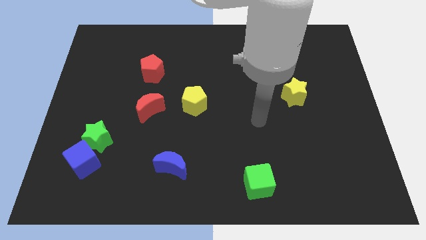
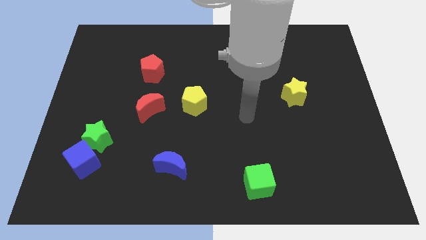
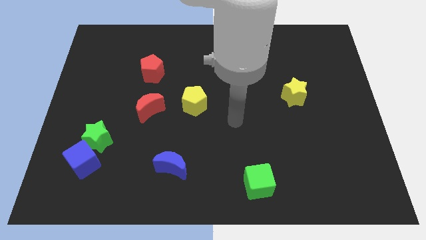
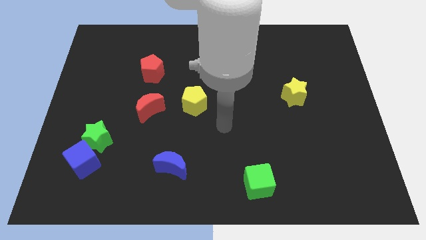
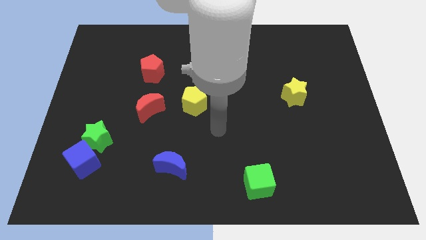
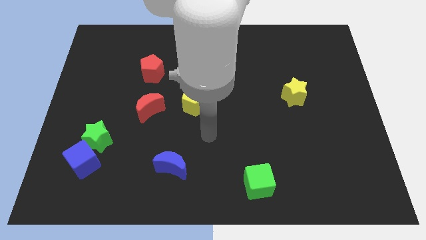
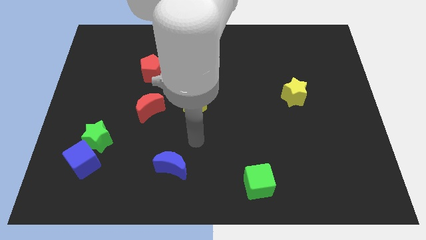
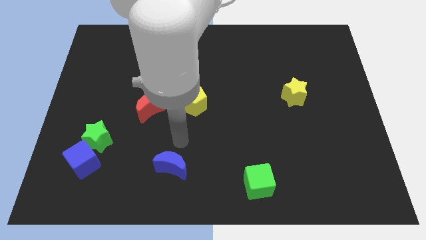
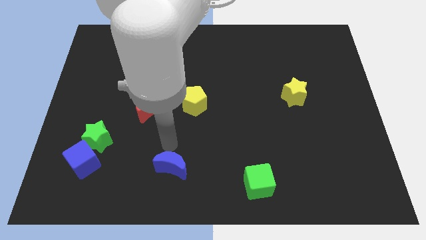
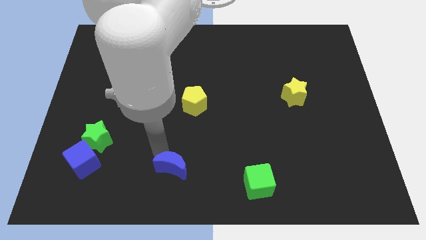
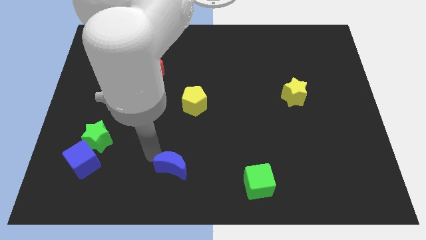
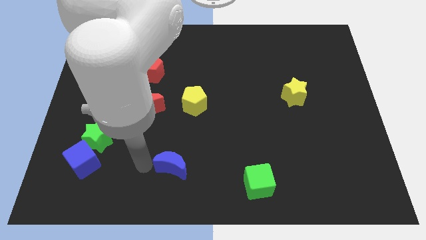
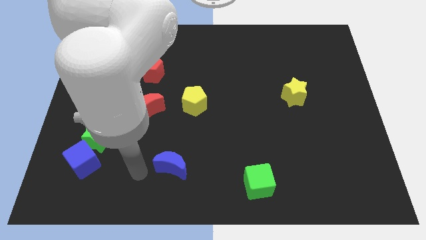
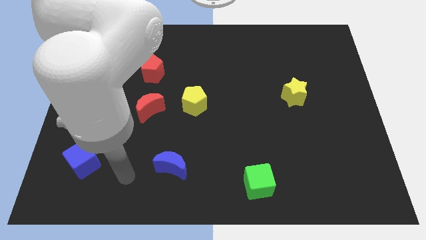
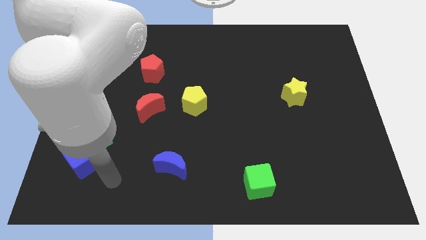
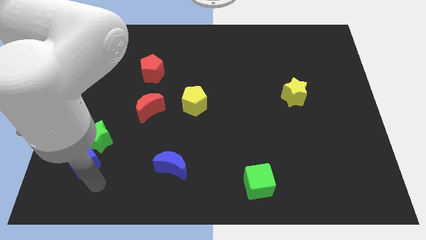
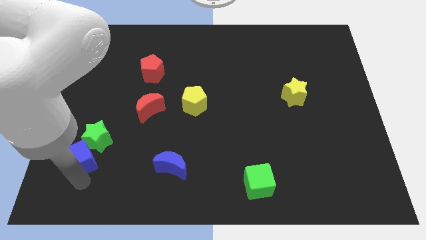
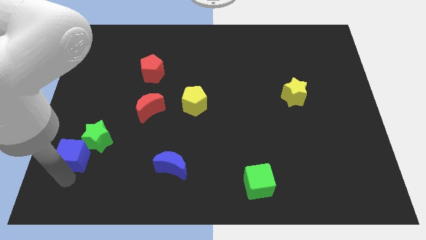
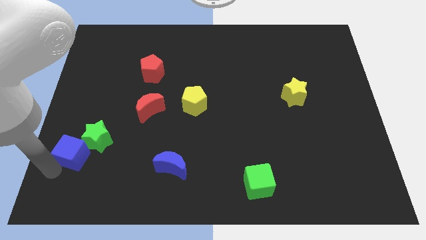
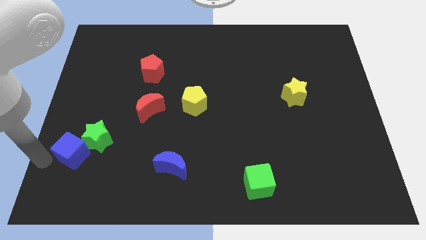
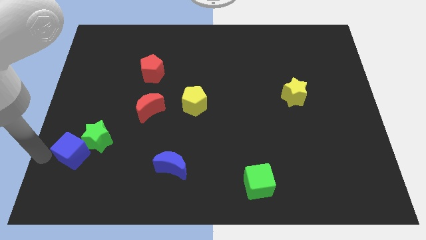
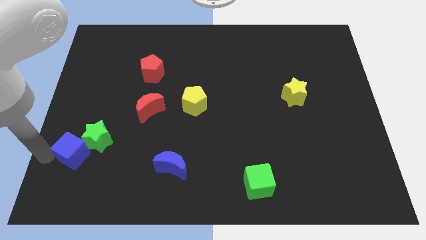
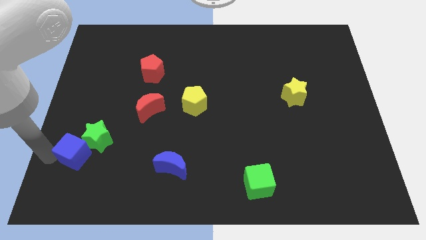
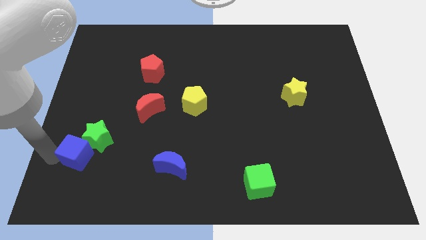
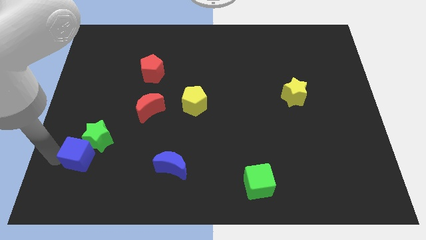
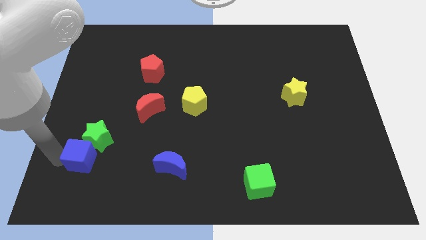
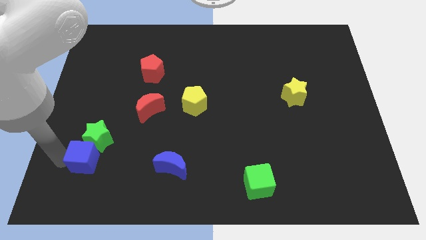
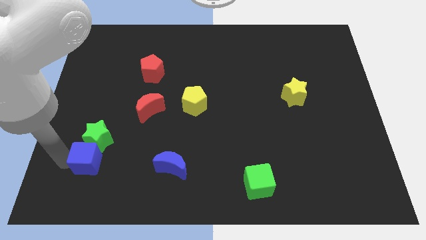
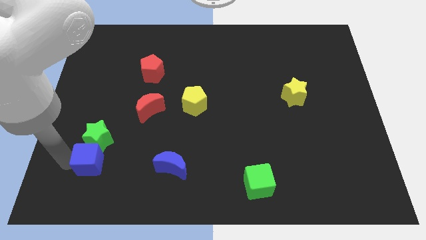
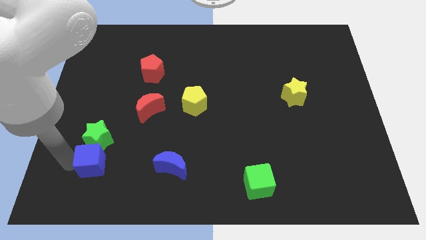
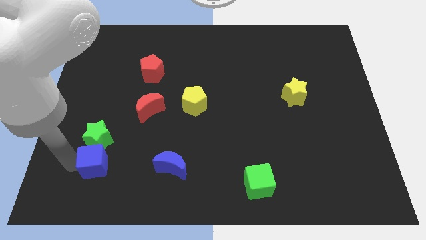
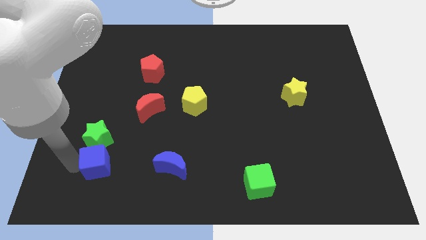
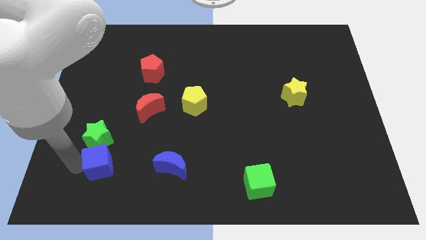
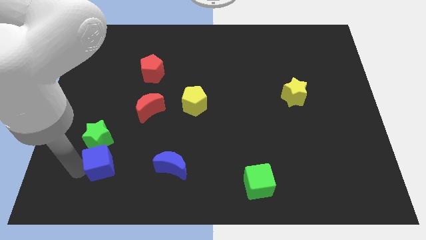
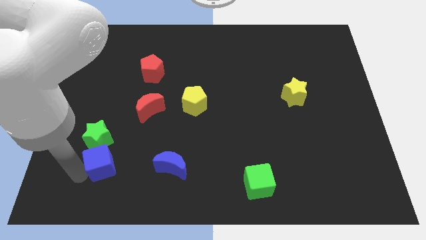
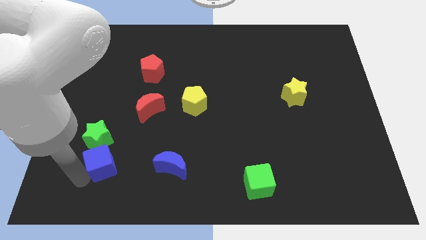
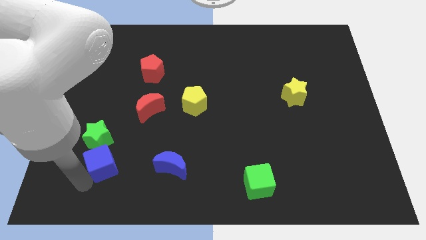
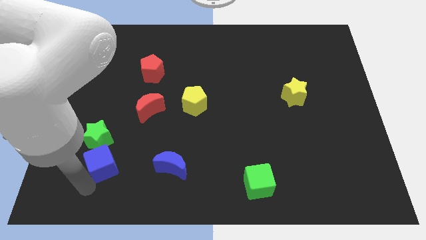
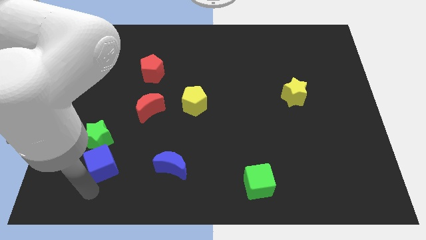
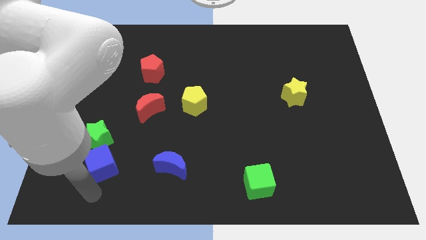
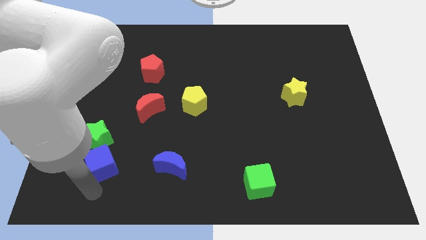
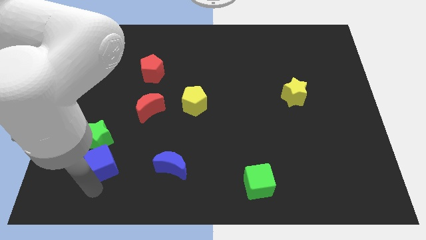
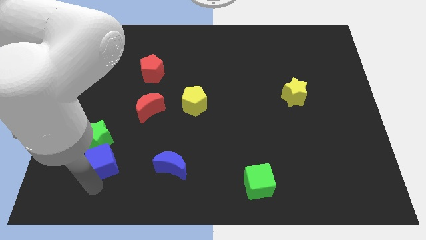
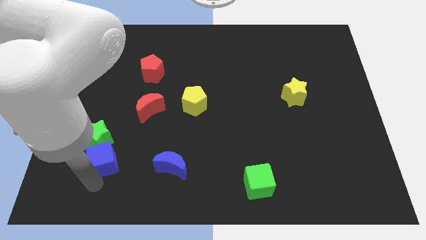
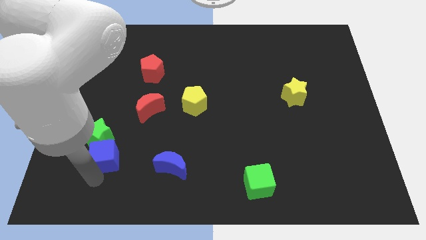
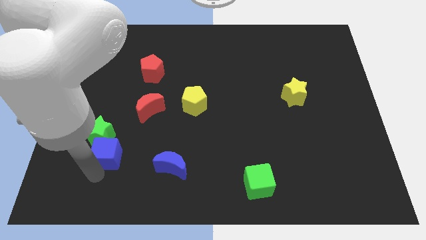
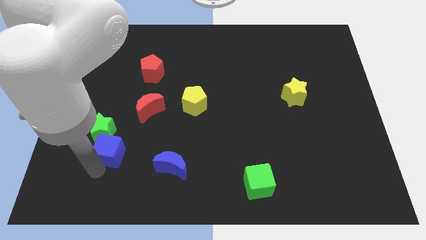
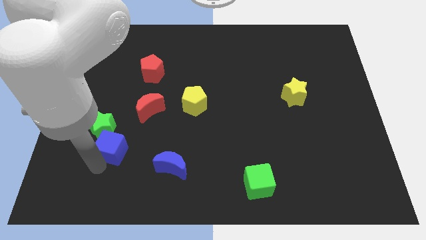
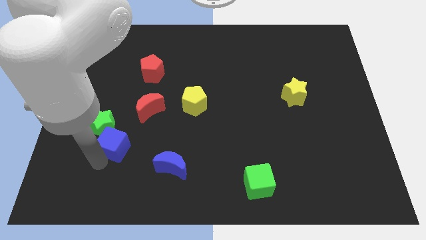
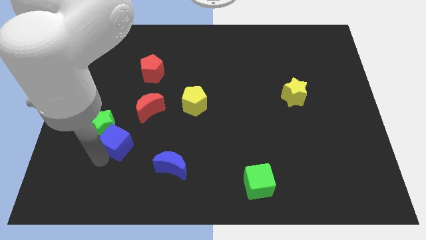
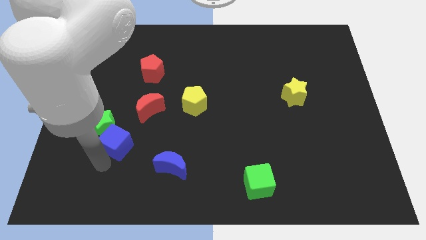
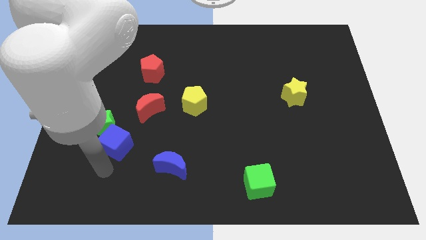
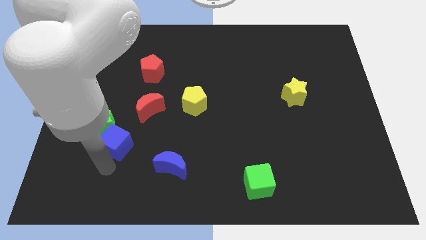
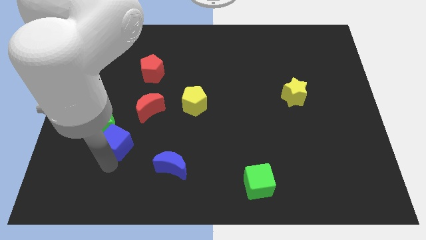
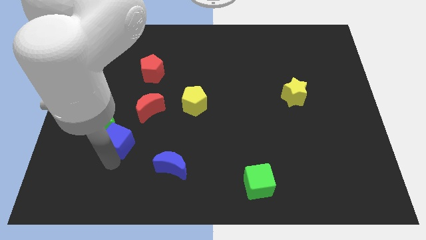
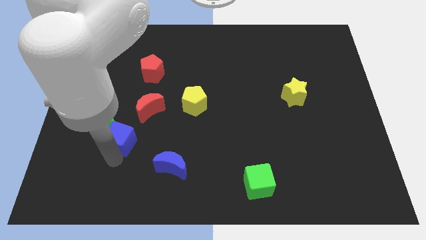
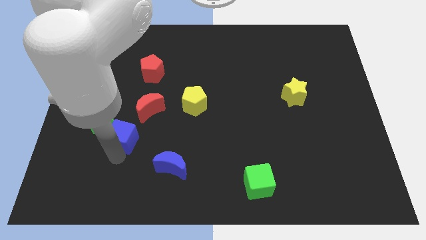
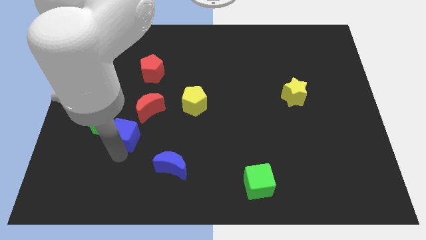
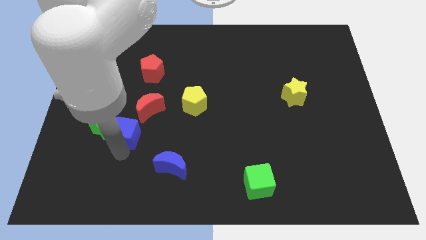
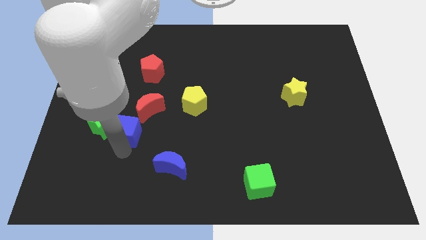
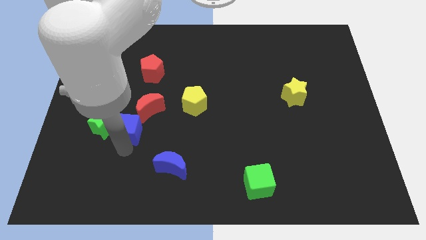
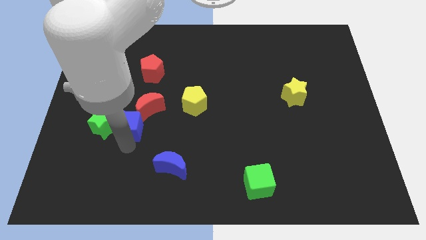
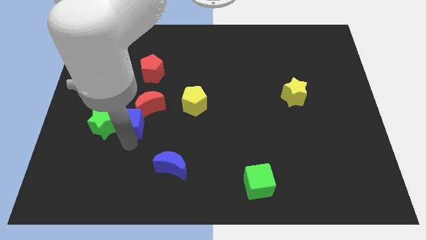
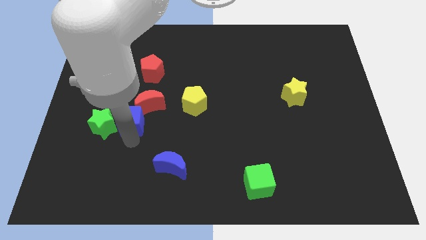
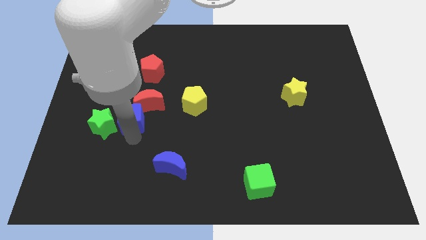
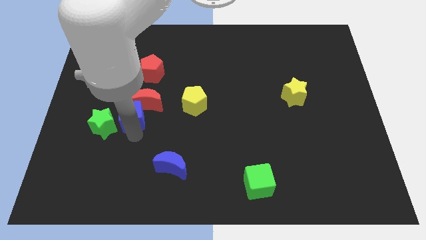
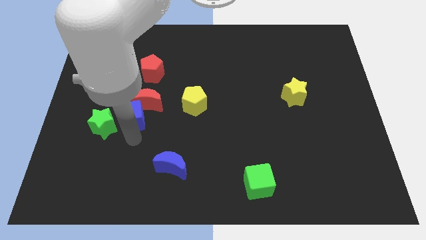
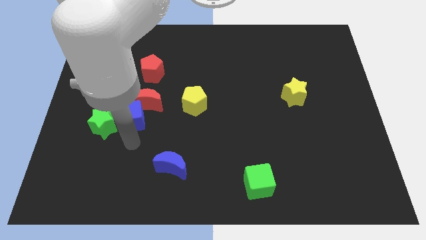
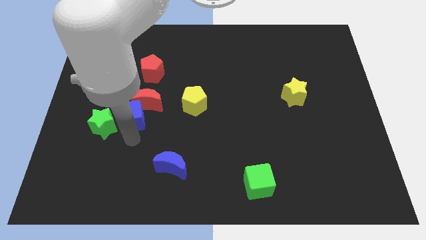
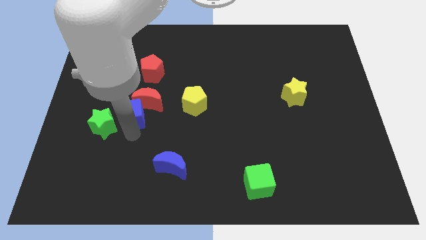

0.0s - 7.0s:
move the blue cube to the left side of the yellow pentagon
